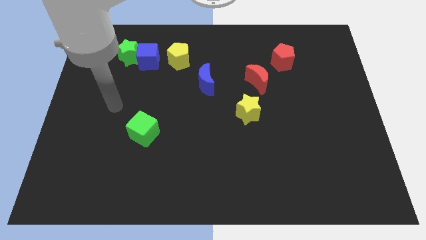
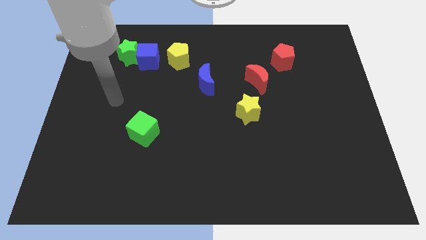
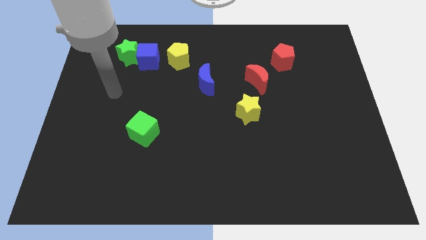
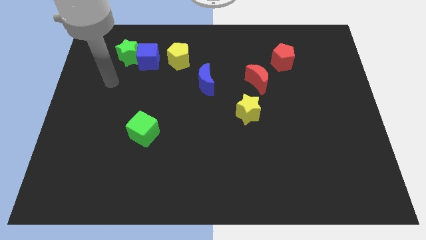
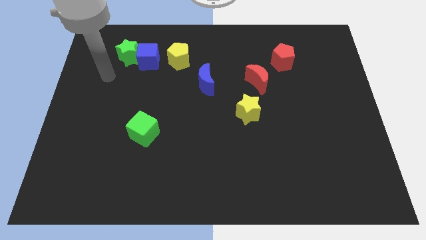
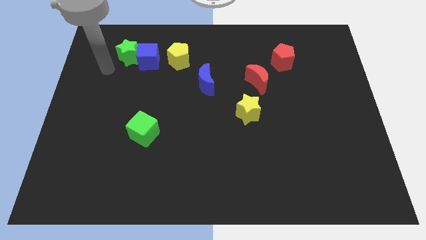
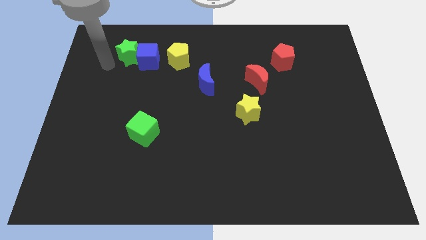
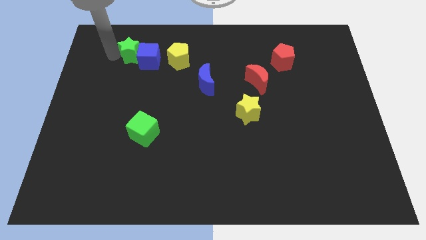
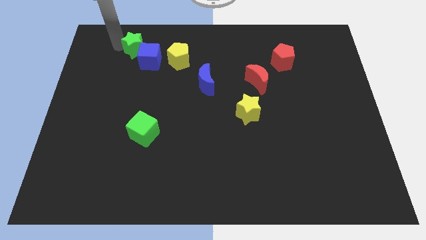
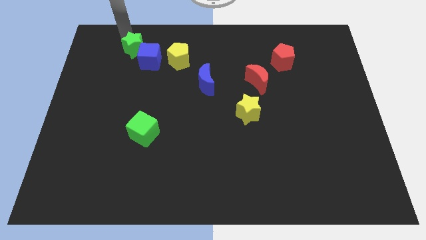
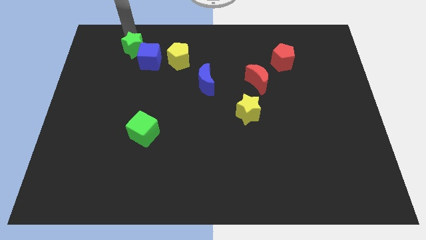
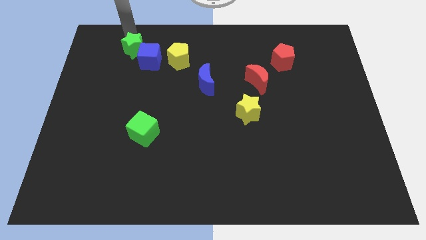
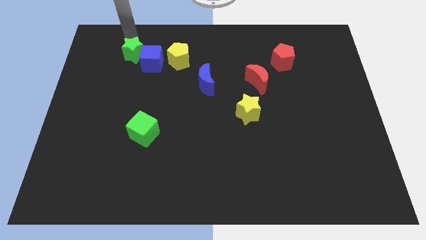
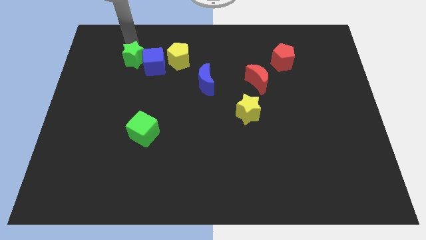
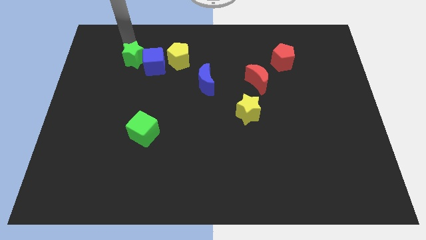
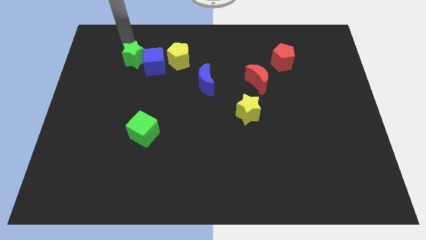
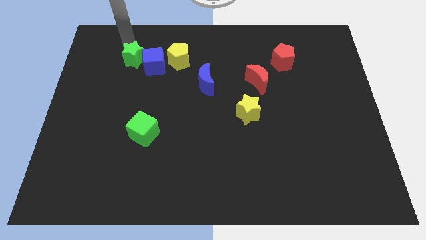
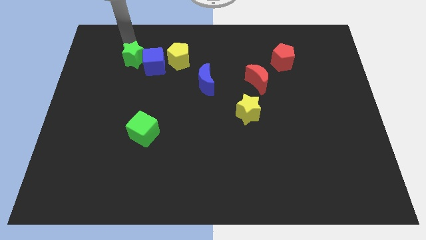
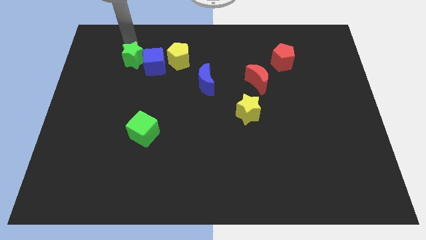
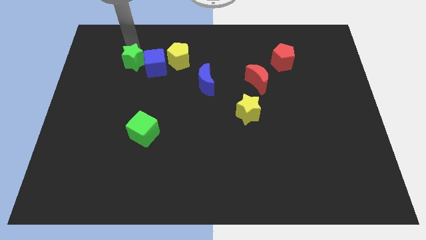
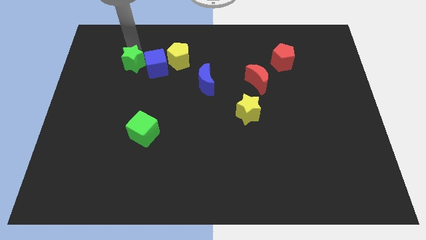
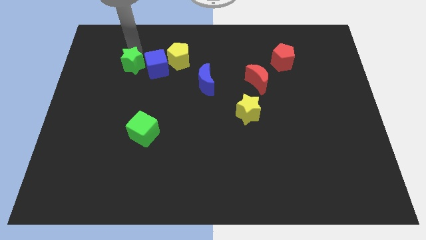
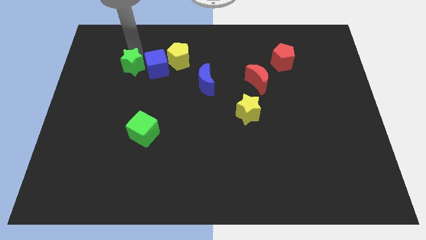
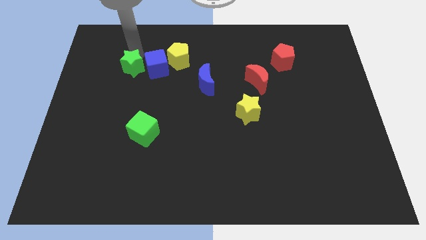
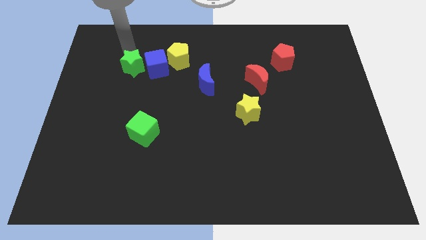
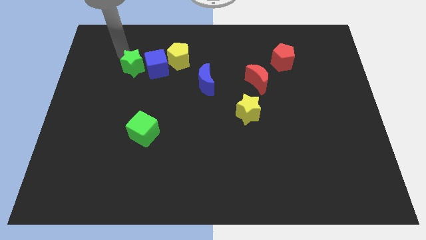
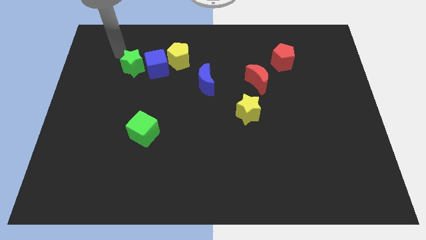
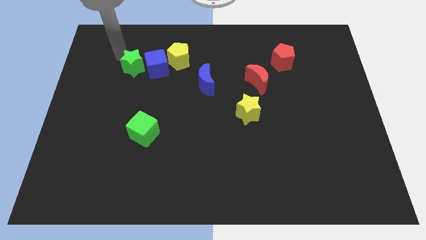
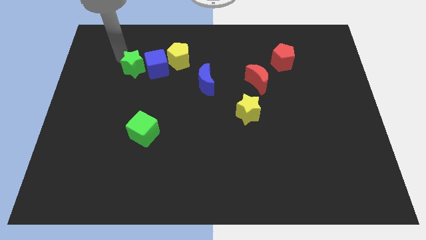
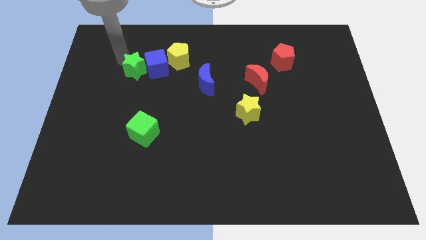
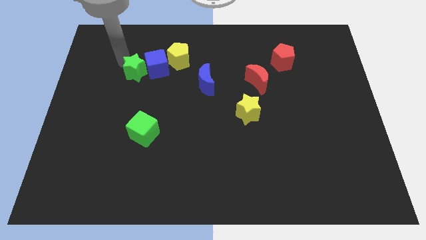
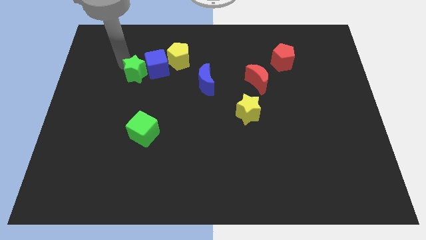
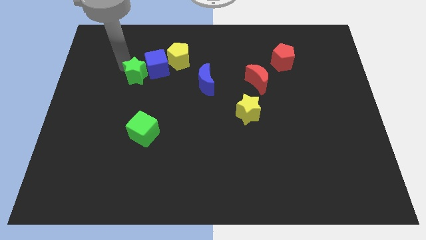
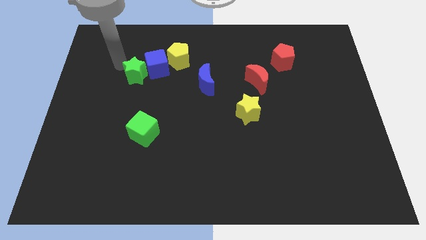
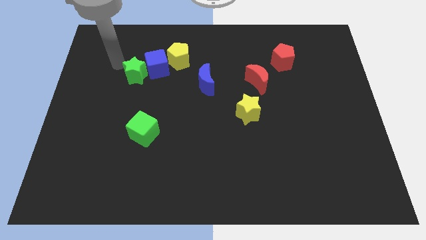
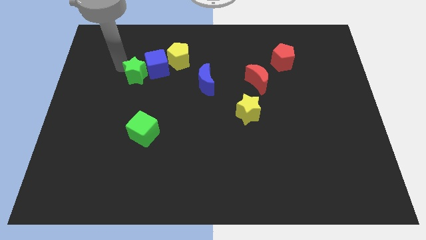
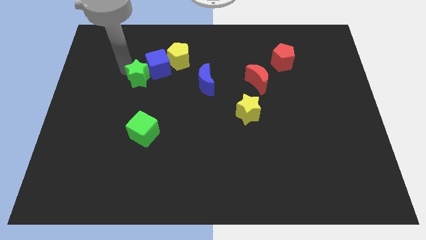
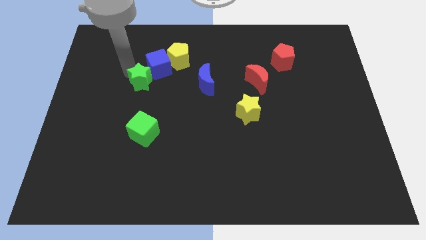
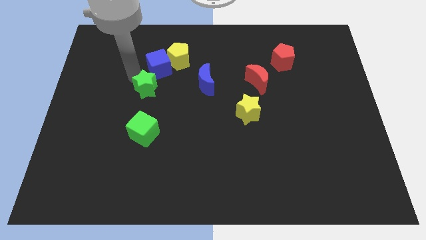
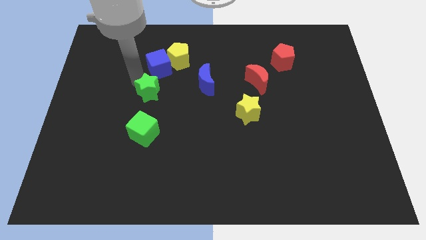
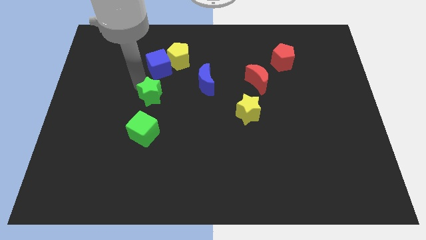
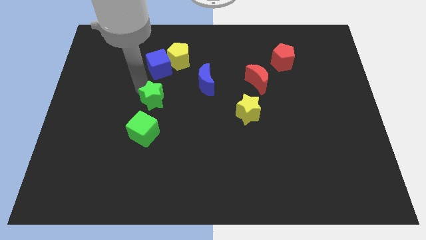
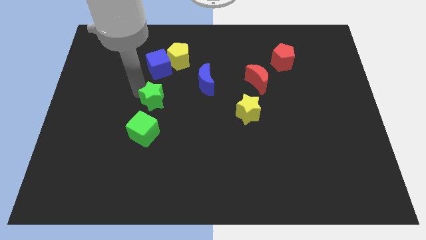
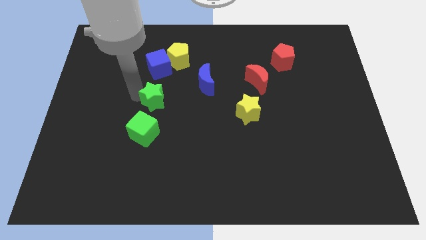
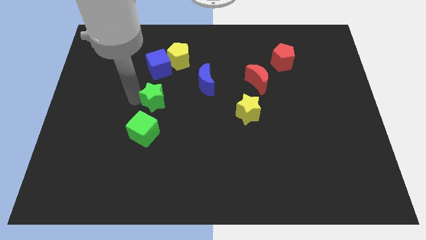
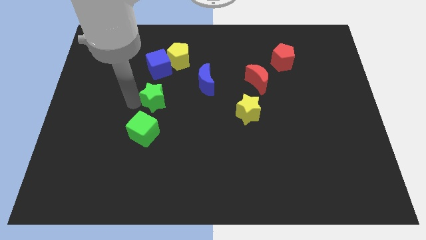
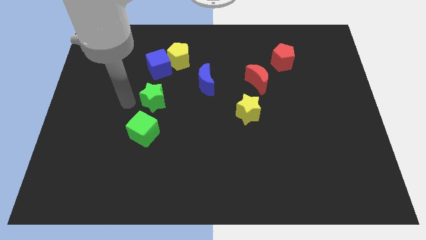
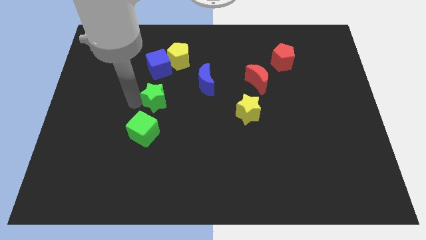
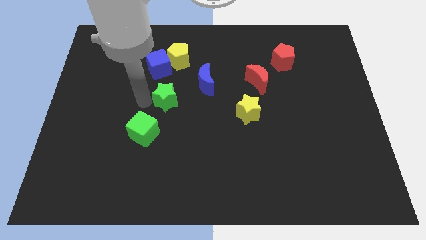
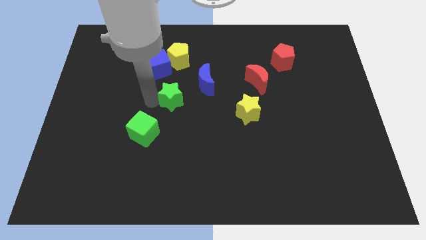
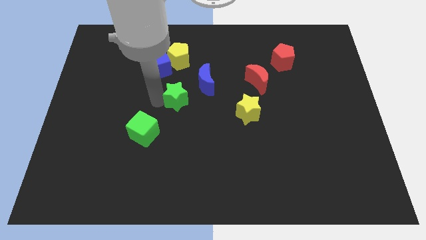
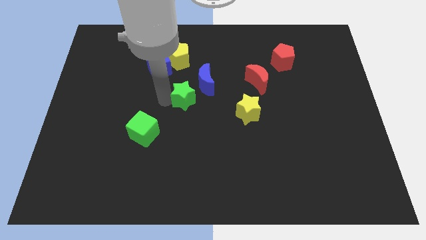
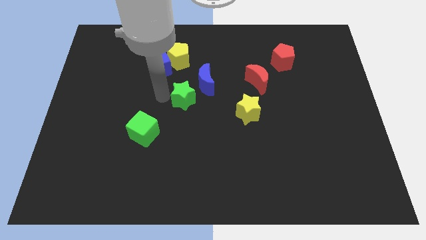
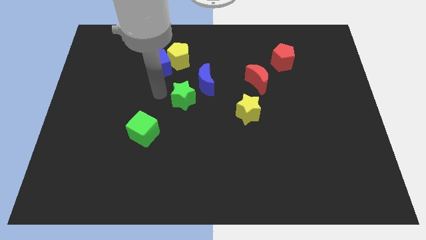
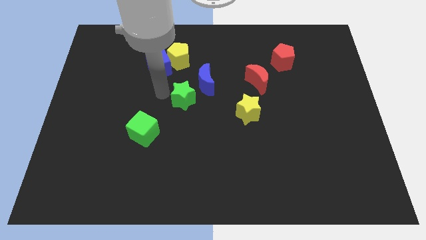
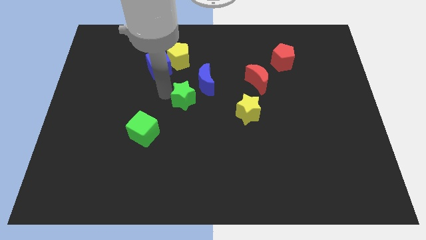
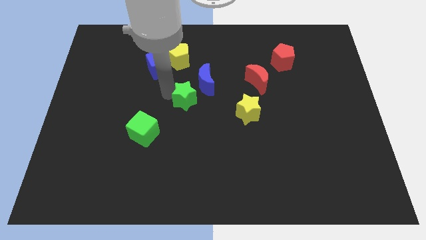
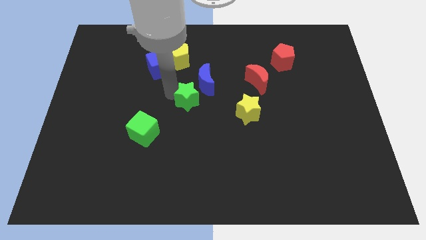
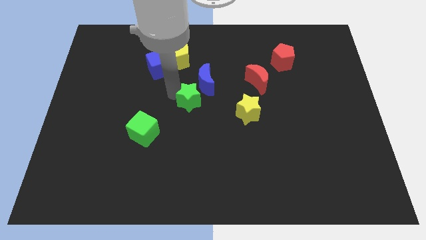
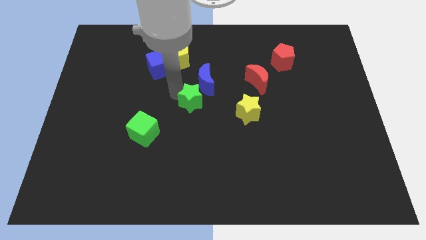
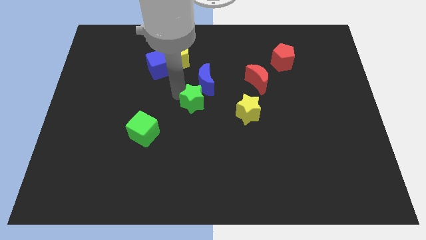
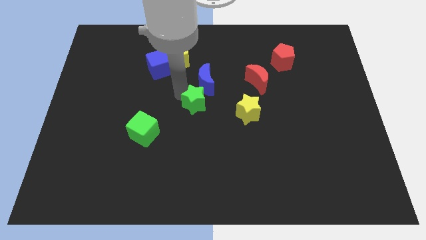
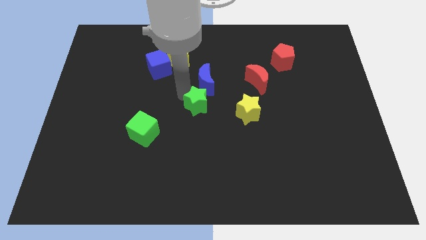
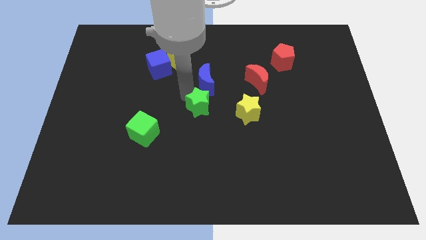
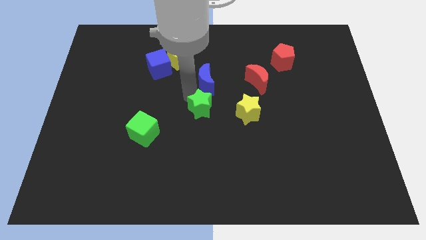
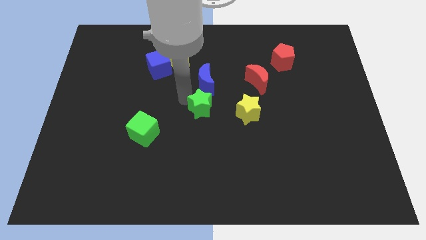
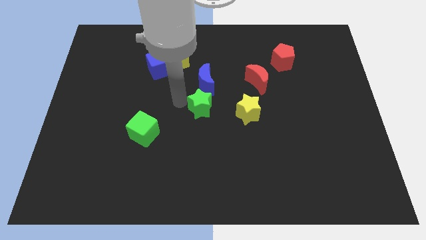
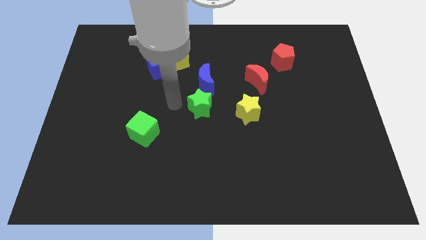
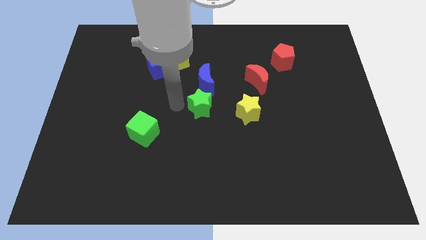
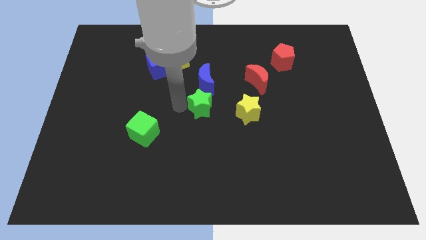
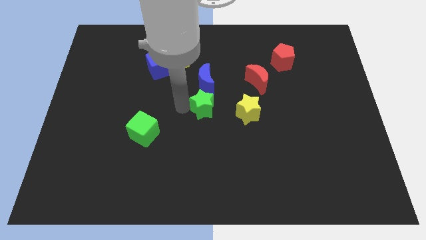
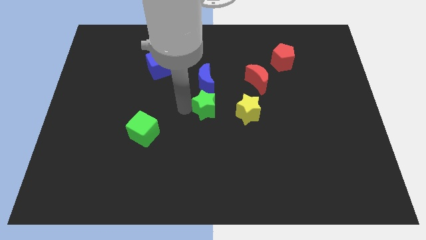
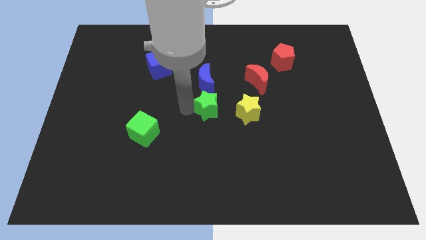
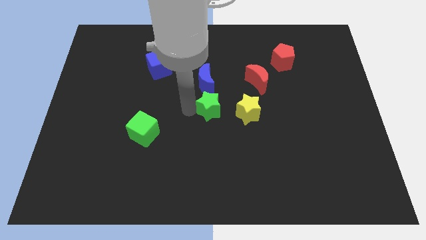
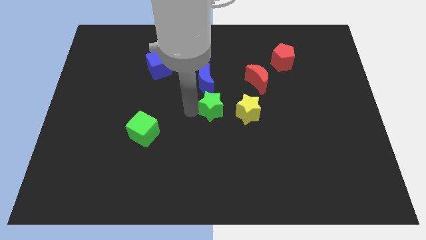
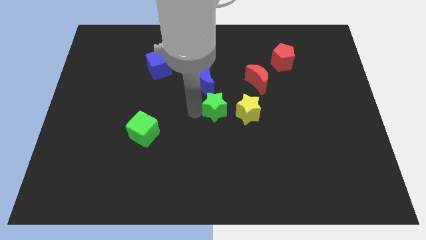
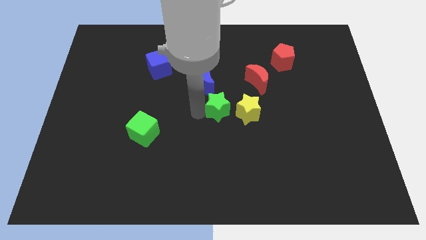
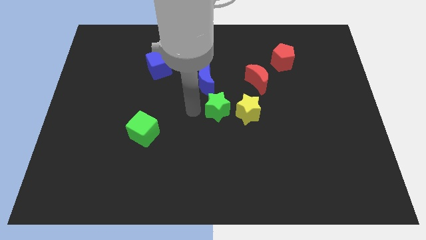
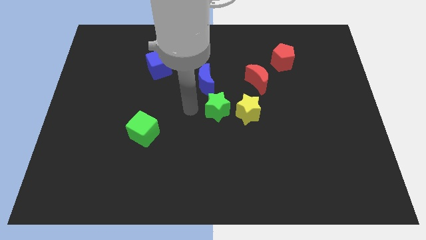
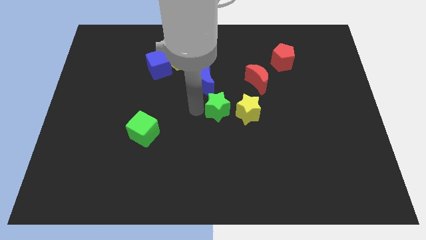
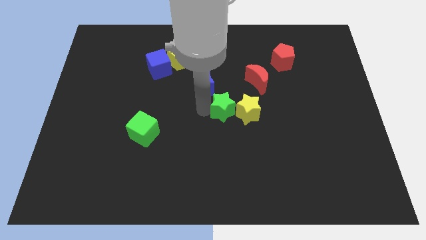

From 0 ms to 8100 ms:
slide the green star to the yellow star
